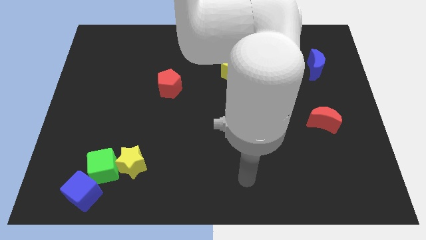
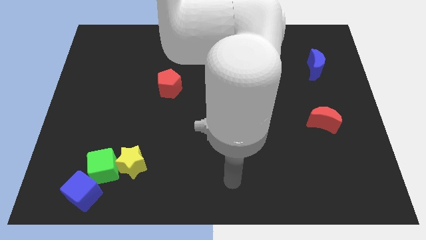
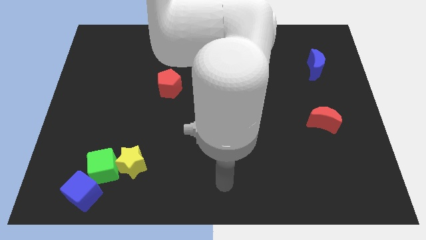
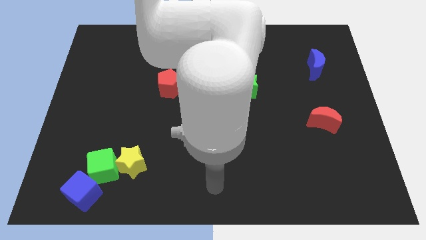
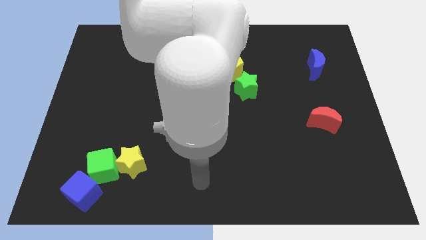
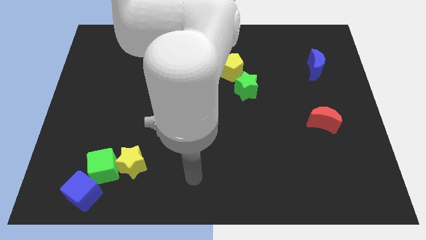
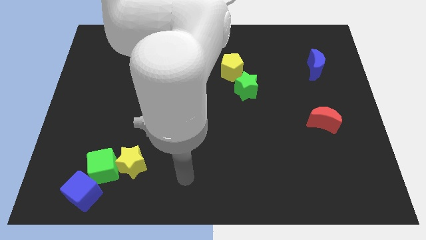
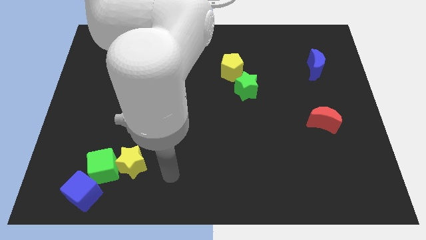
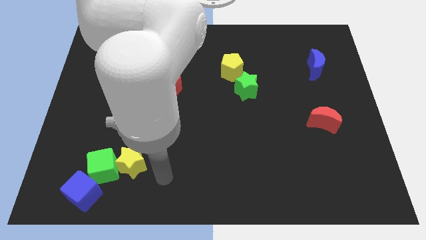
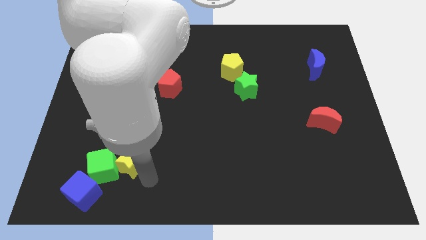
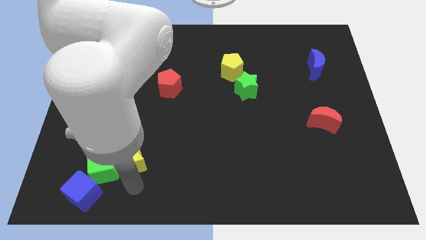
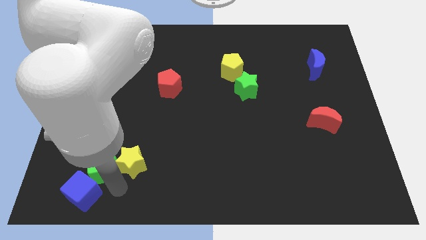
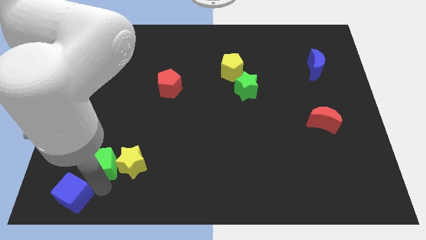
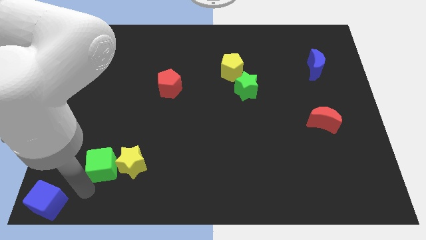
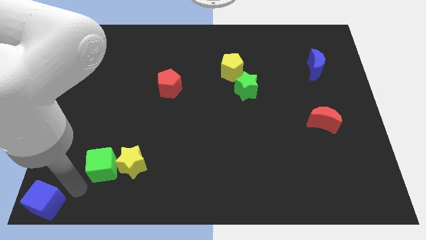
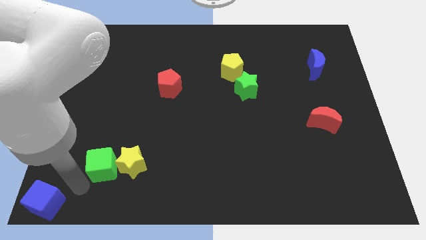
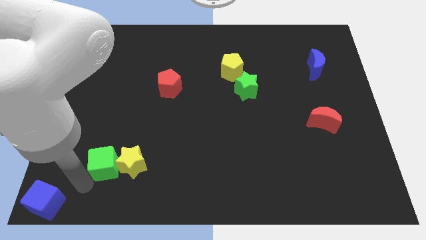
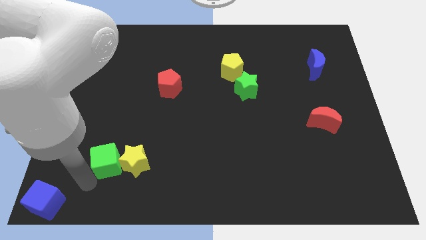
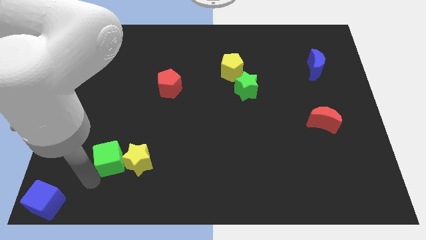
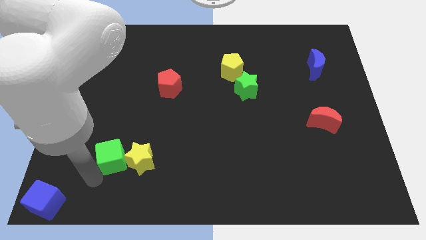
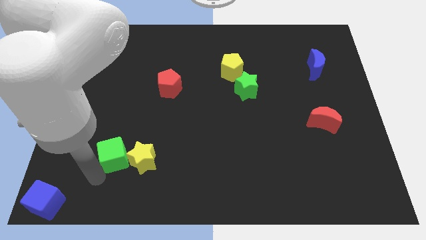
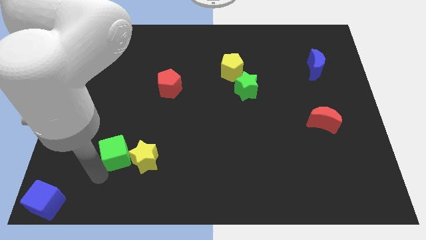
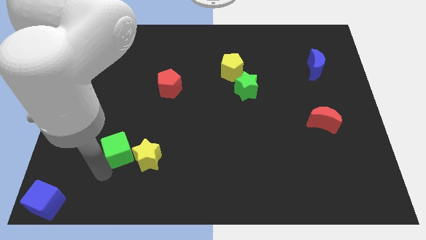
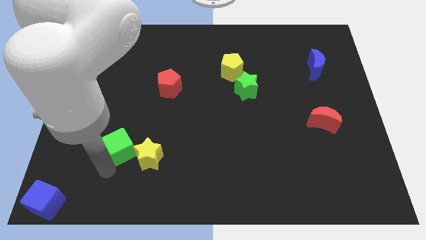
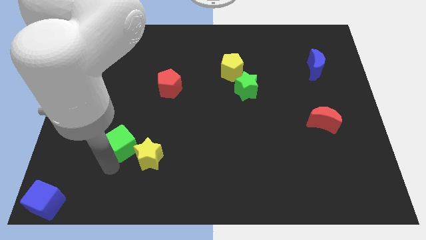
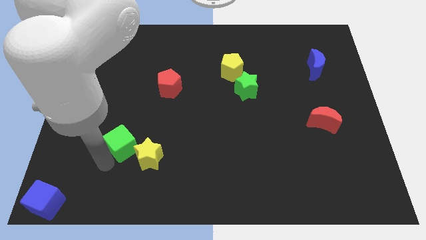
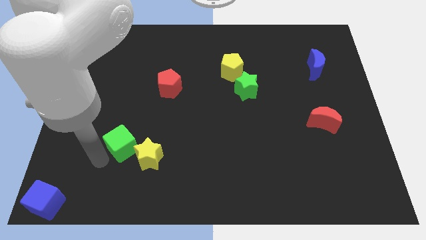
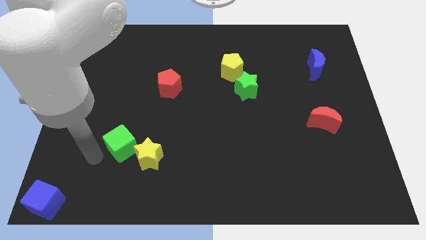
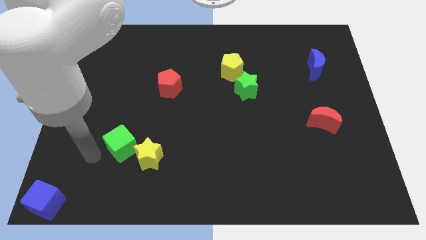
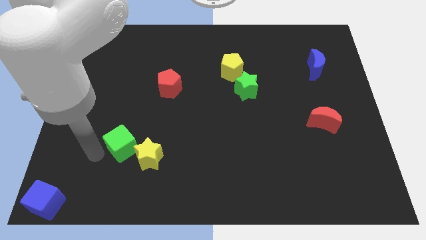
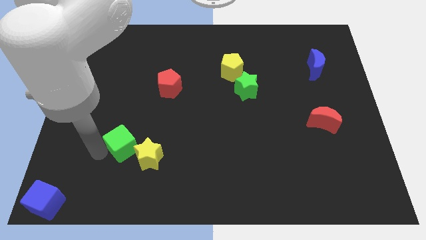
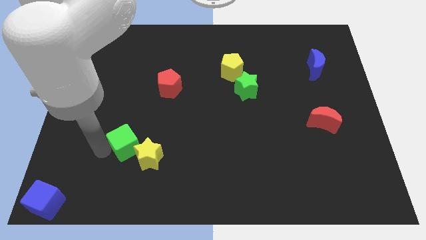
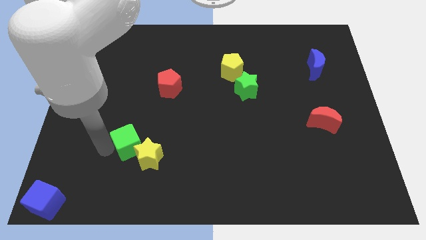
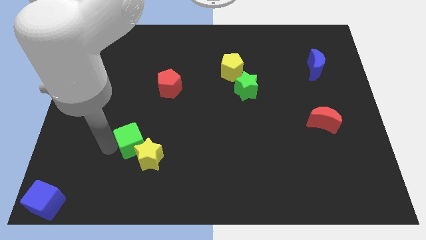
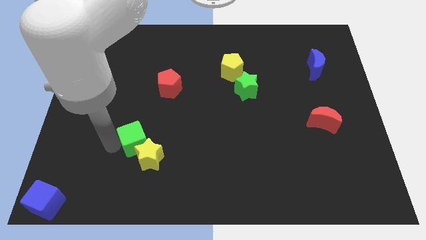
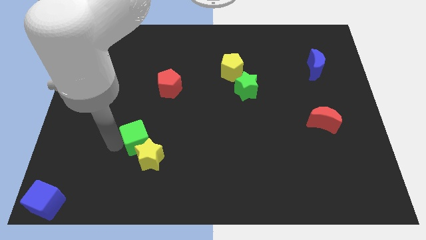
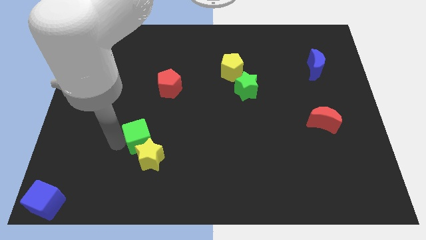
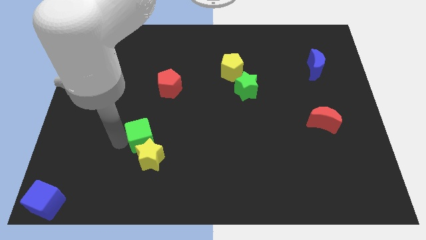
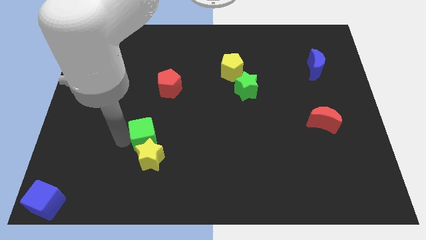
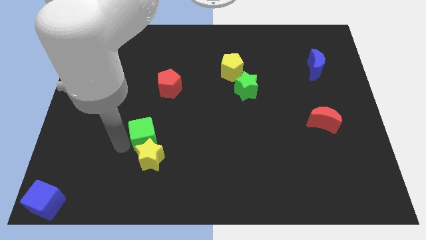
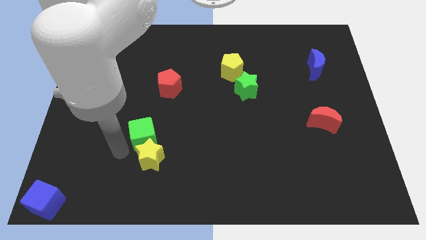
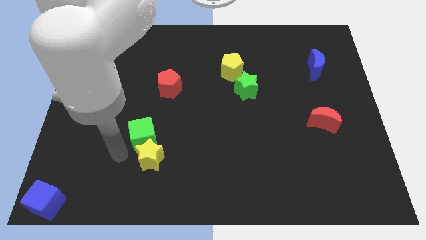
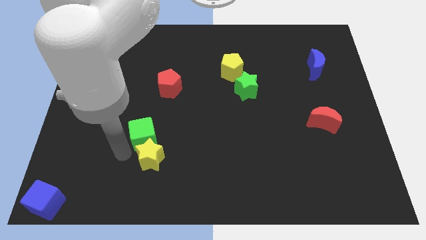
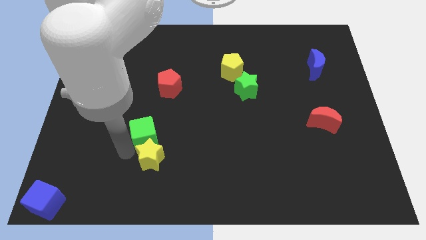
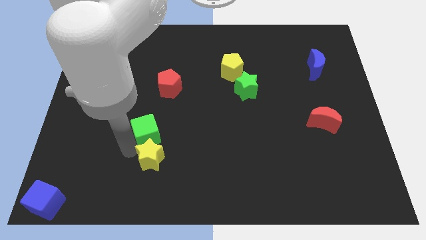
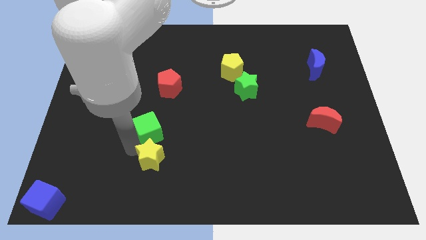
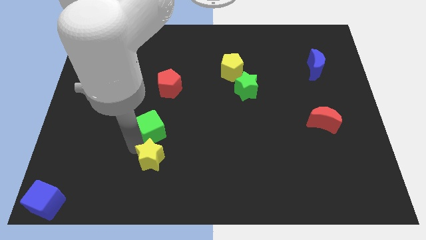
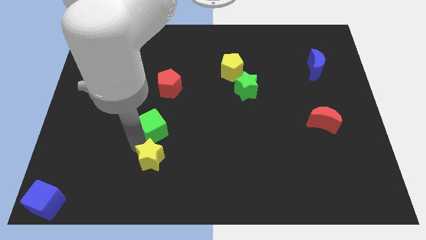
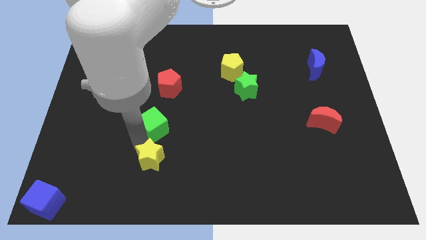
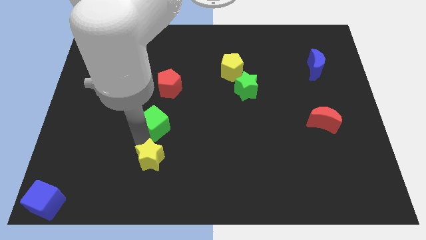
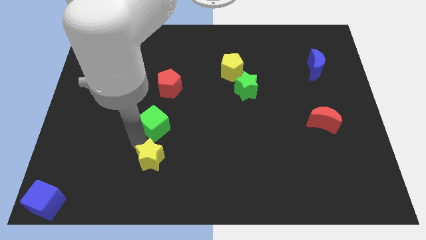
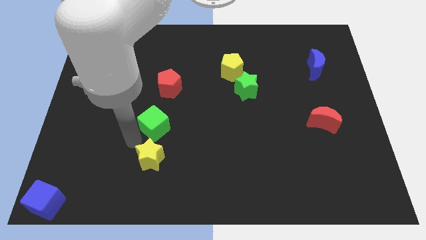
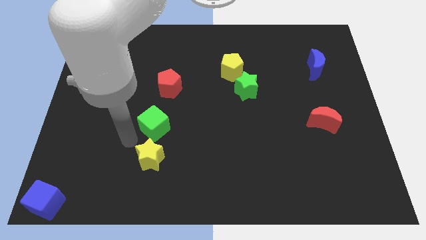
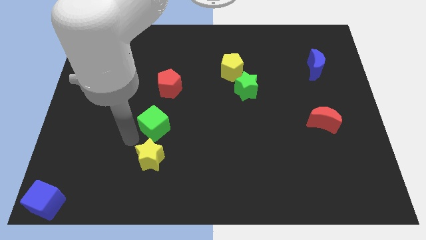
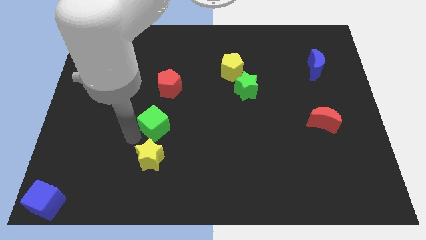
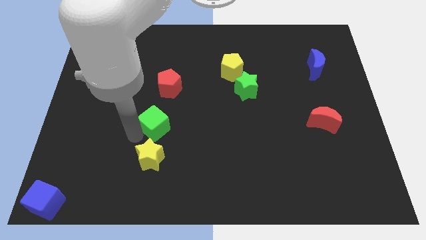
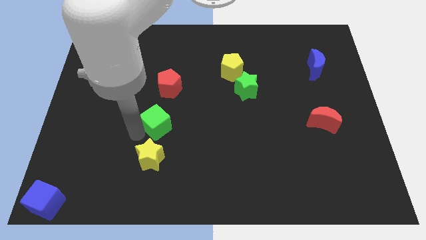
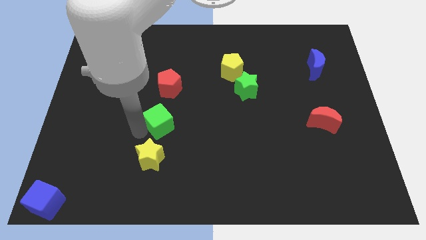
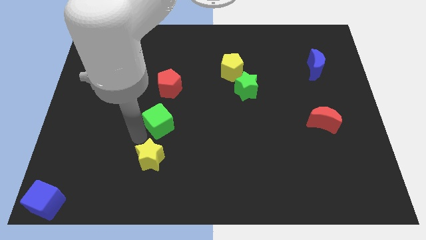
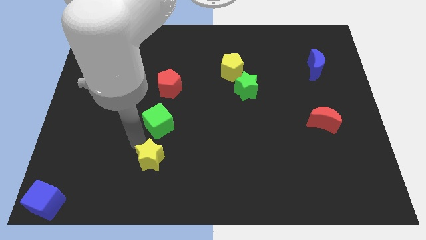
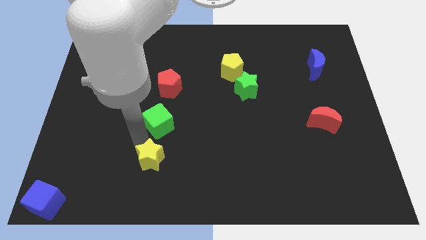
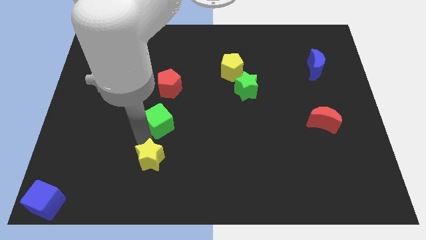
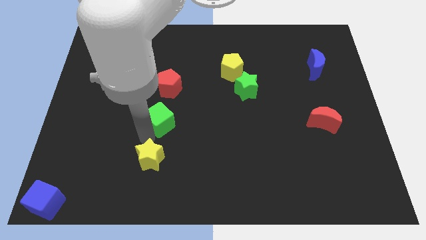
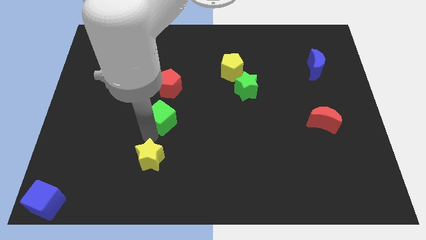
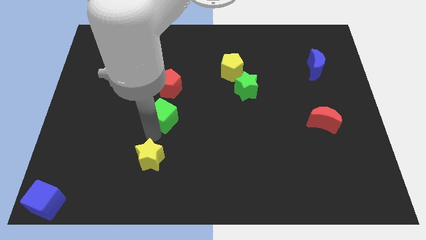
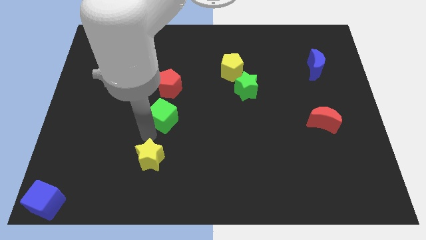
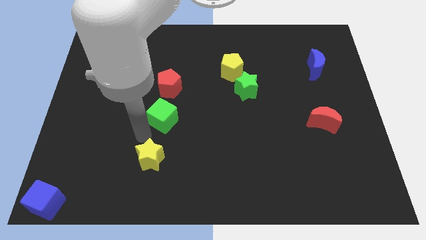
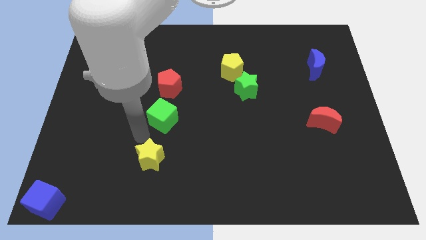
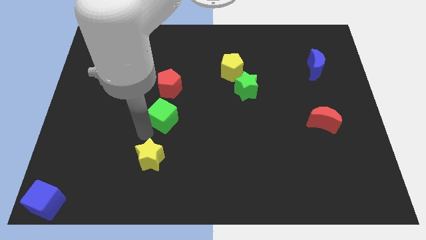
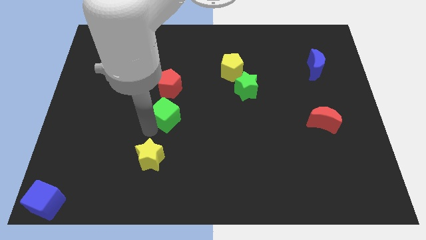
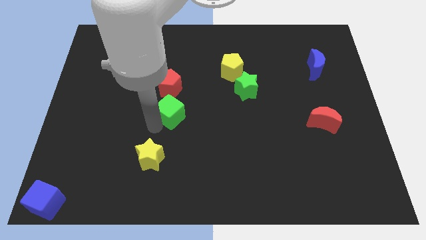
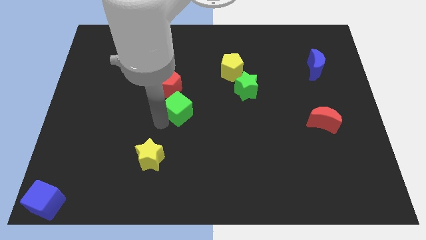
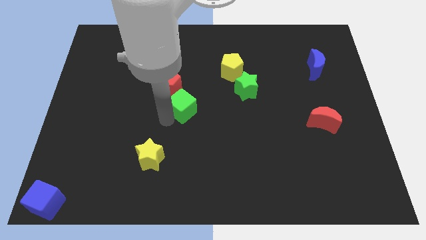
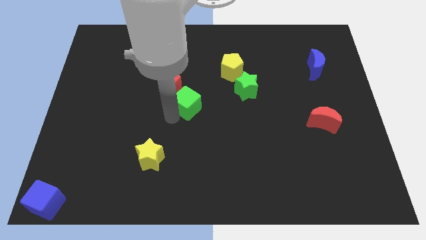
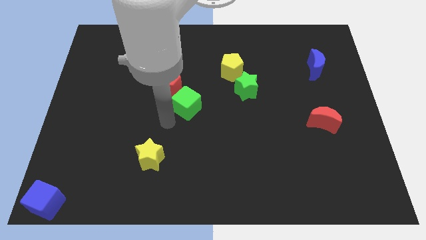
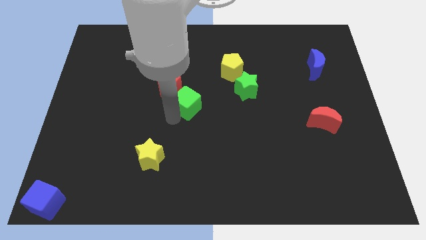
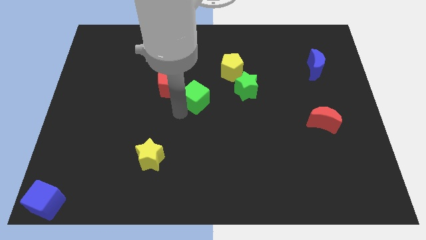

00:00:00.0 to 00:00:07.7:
move the green cube right of the red pentagon

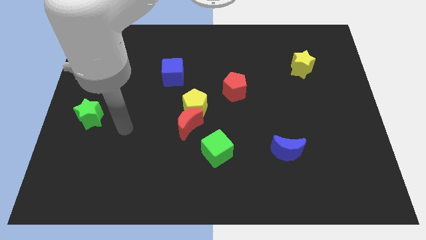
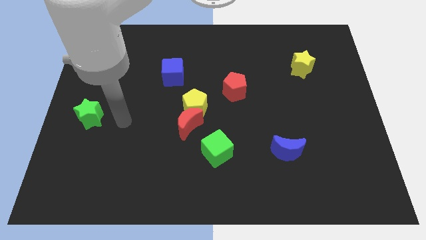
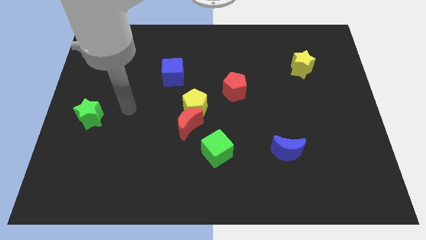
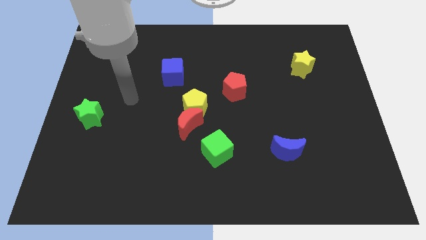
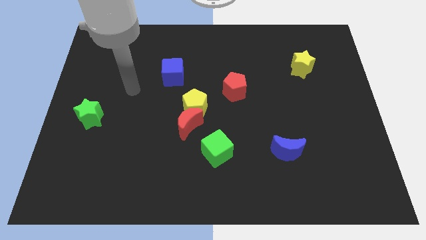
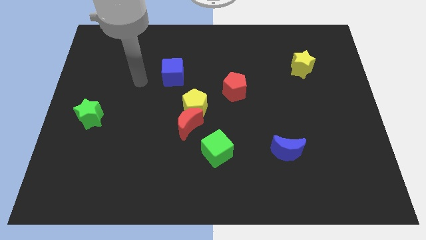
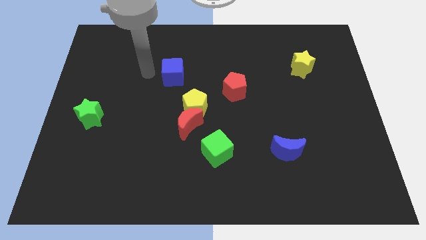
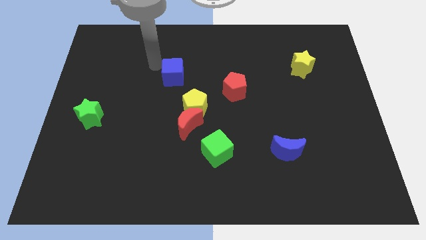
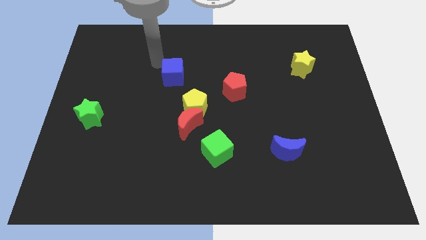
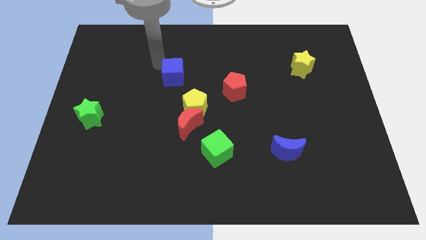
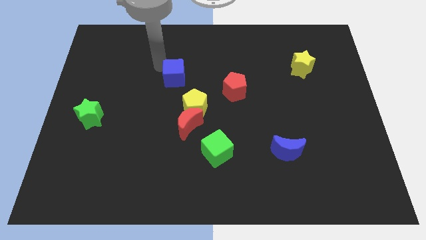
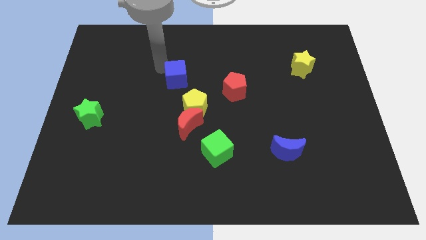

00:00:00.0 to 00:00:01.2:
slide the blue cube to the left of the red pentagon
